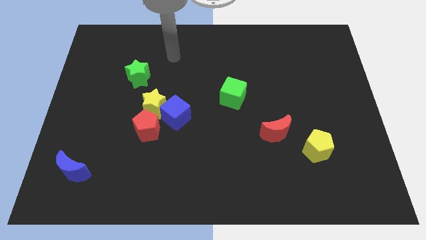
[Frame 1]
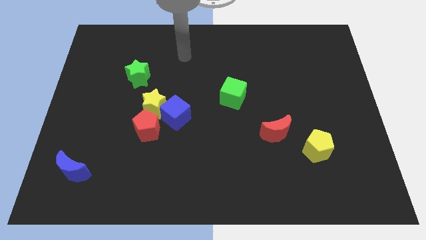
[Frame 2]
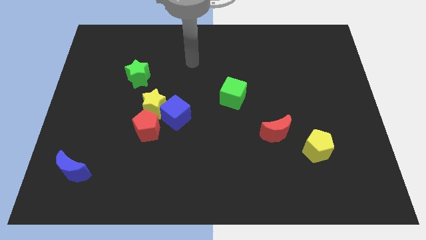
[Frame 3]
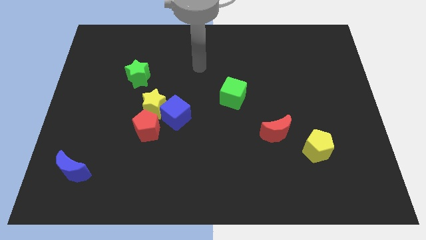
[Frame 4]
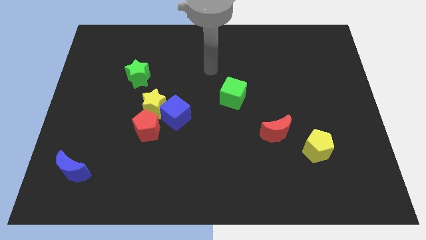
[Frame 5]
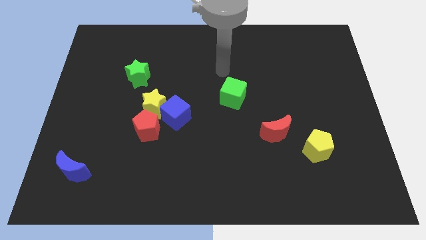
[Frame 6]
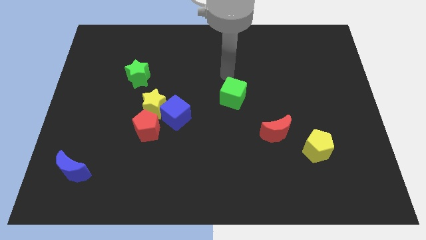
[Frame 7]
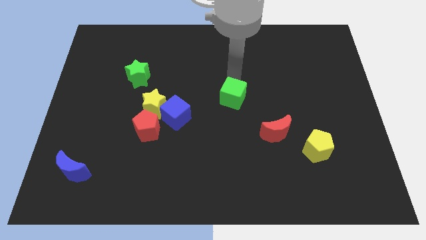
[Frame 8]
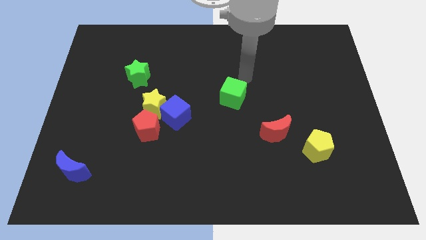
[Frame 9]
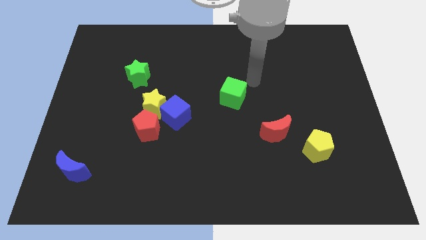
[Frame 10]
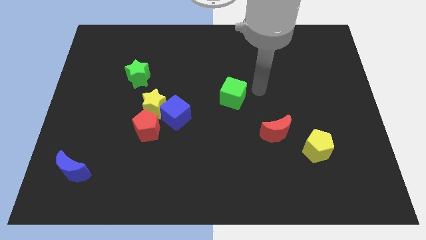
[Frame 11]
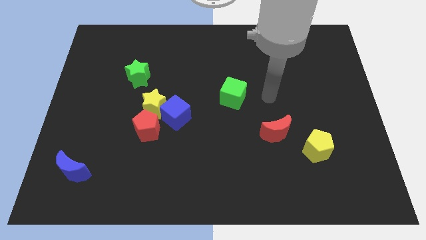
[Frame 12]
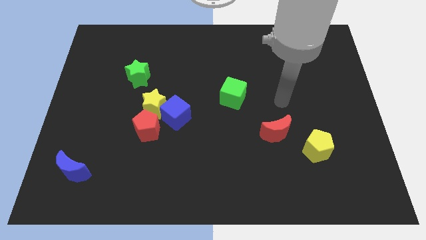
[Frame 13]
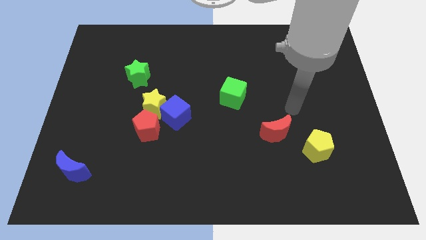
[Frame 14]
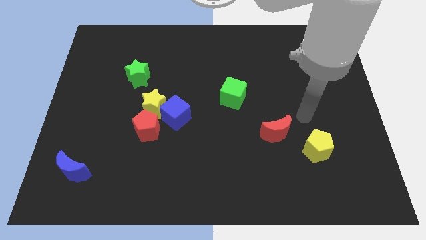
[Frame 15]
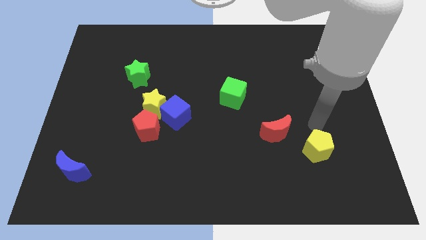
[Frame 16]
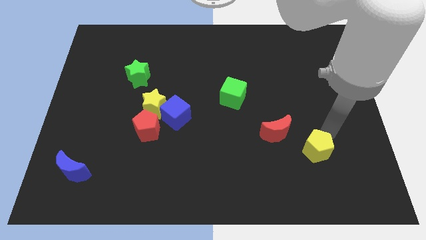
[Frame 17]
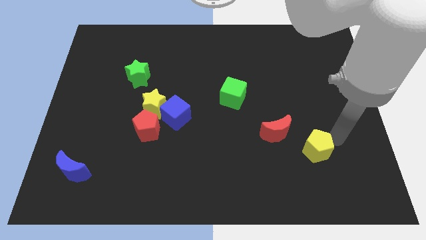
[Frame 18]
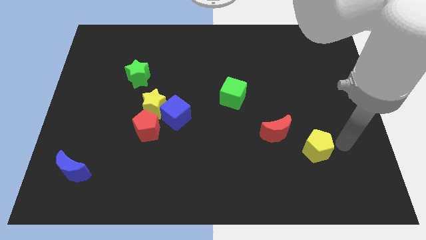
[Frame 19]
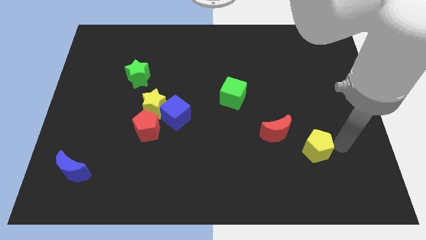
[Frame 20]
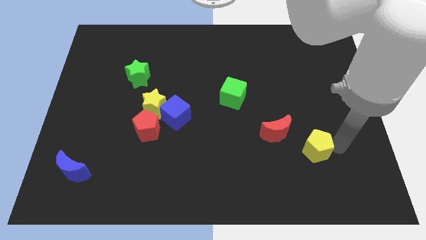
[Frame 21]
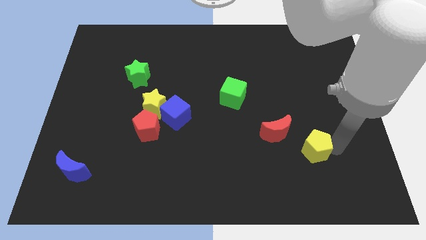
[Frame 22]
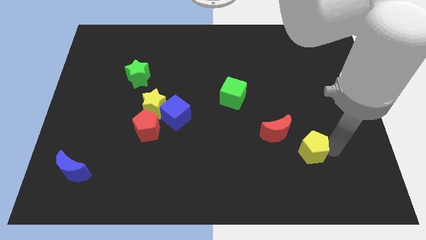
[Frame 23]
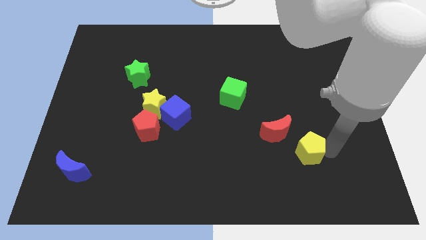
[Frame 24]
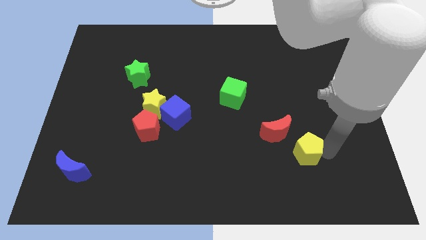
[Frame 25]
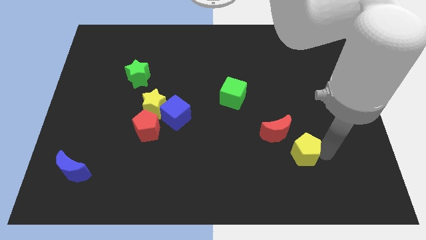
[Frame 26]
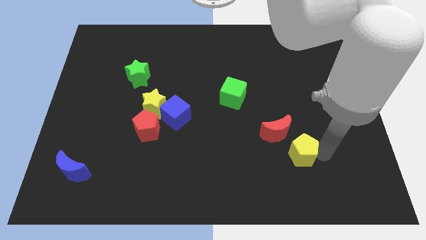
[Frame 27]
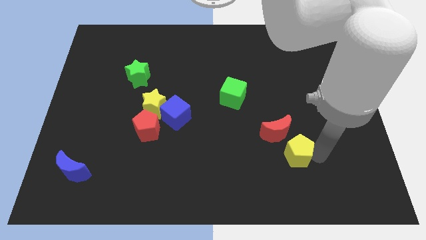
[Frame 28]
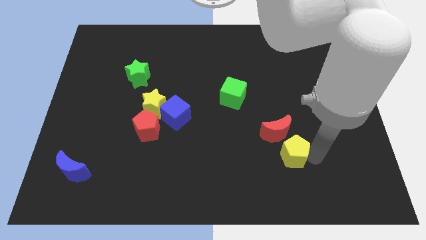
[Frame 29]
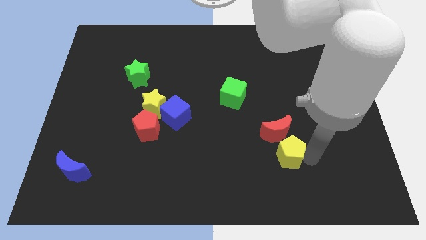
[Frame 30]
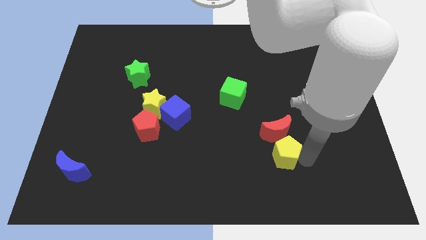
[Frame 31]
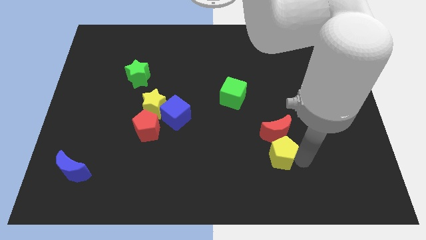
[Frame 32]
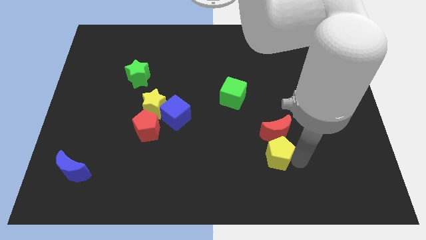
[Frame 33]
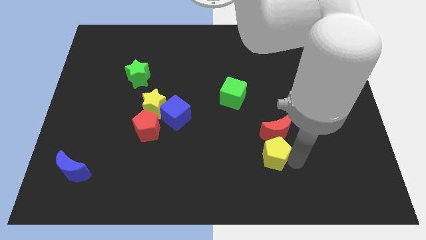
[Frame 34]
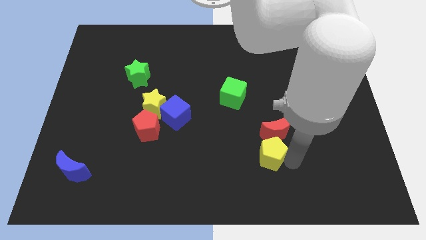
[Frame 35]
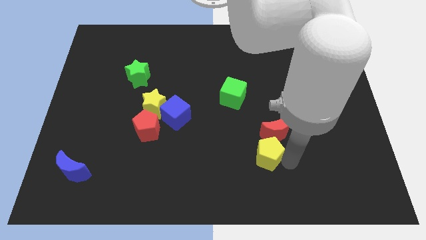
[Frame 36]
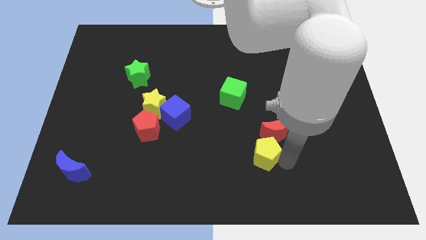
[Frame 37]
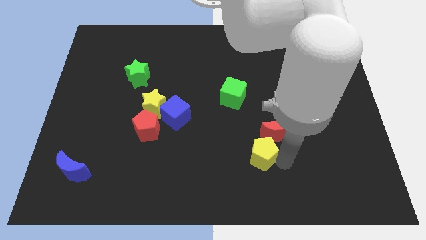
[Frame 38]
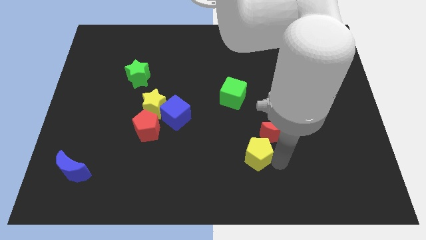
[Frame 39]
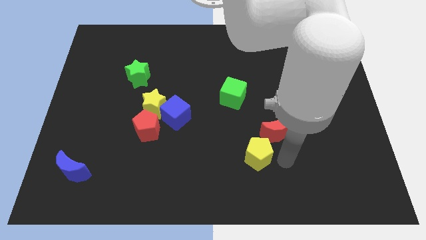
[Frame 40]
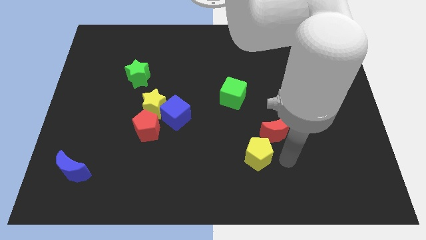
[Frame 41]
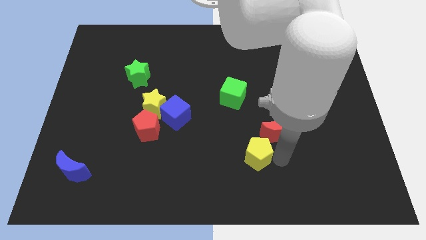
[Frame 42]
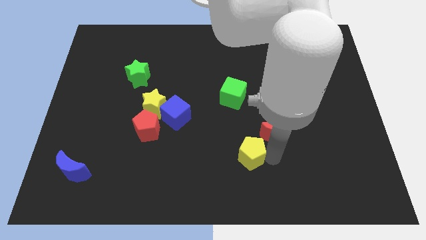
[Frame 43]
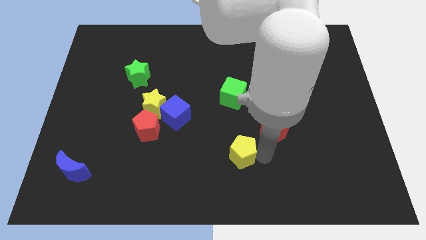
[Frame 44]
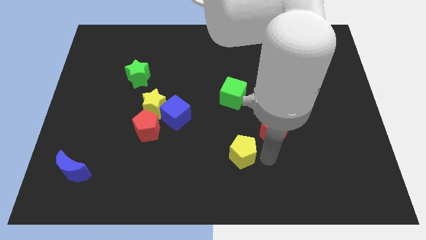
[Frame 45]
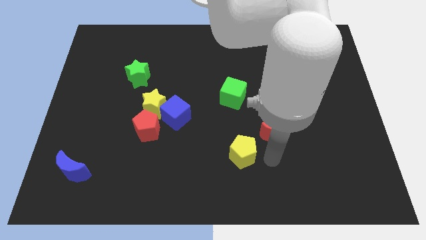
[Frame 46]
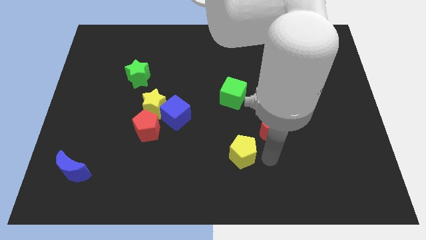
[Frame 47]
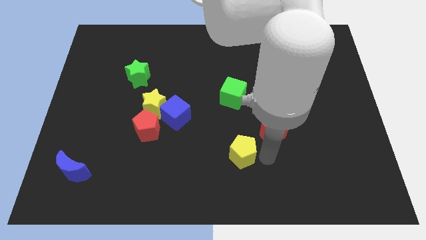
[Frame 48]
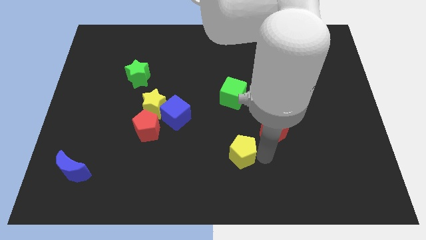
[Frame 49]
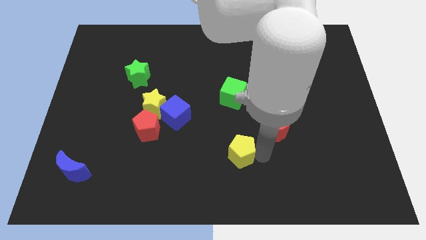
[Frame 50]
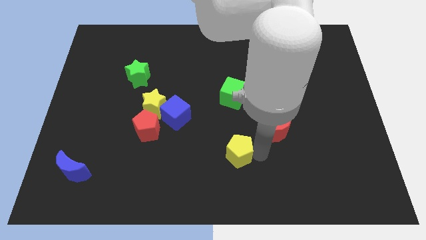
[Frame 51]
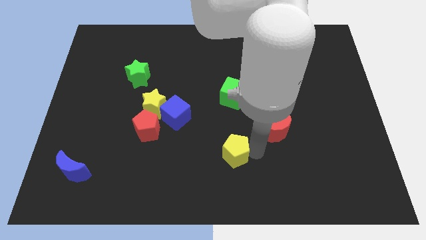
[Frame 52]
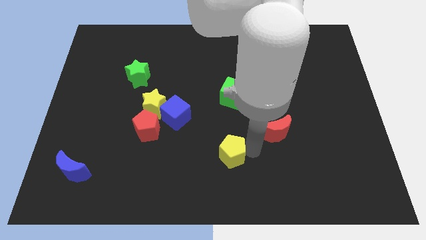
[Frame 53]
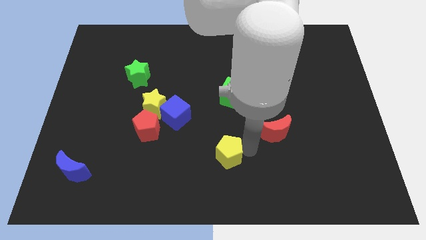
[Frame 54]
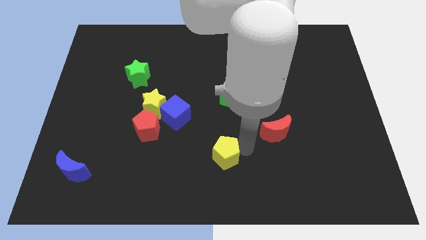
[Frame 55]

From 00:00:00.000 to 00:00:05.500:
push the yellow pentagon to the left

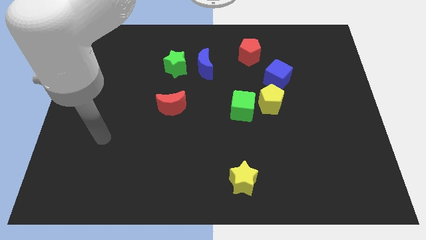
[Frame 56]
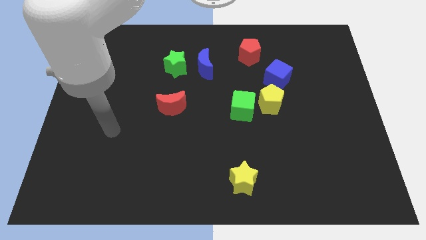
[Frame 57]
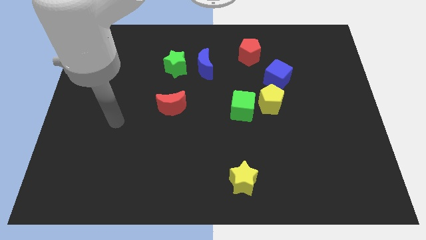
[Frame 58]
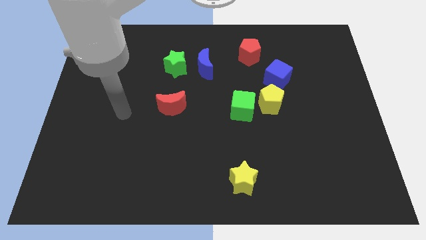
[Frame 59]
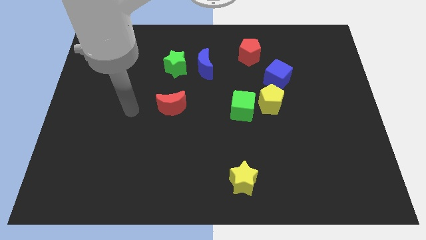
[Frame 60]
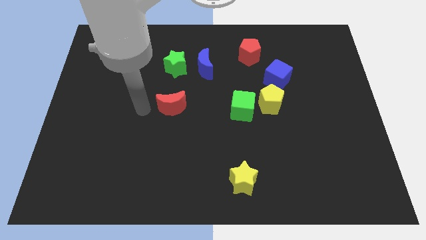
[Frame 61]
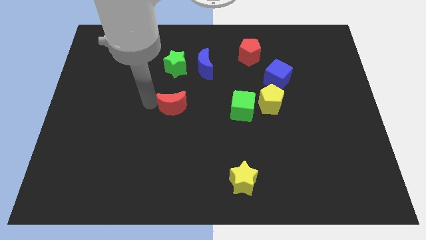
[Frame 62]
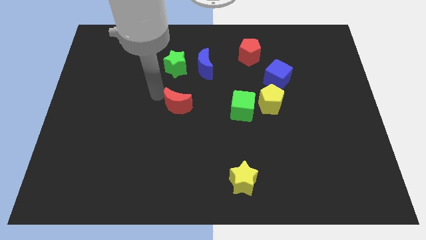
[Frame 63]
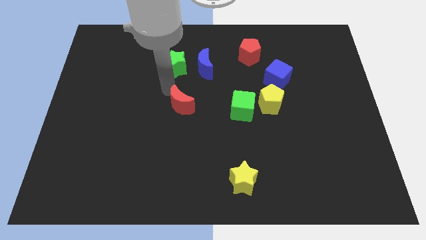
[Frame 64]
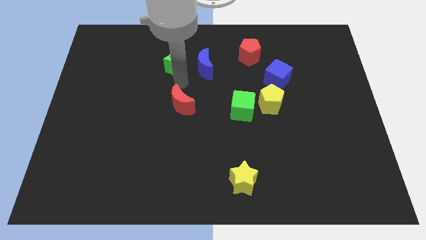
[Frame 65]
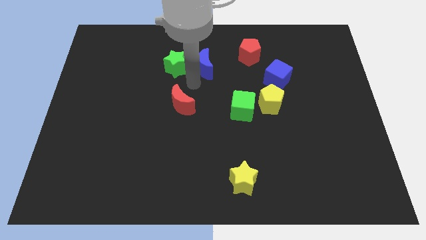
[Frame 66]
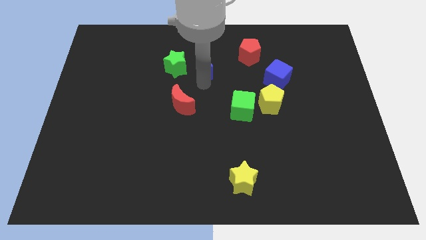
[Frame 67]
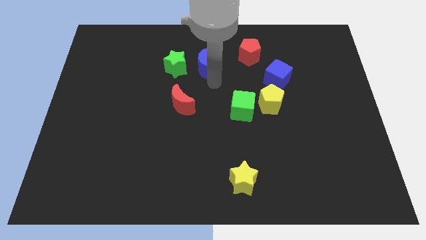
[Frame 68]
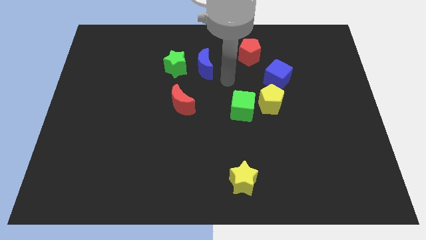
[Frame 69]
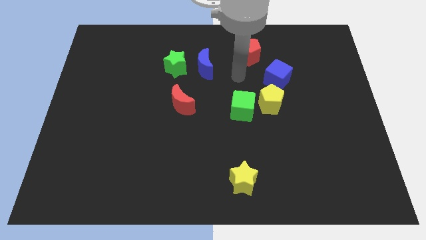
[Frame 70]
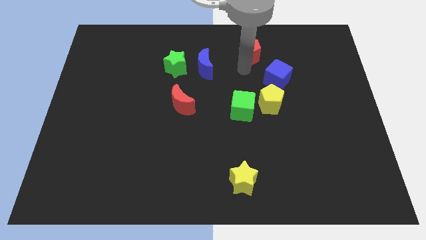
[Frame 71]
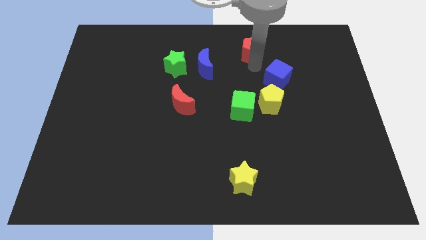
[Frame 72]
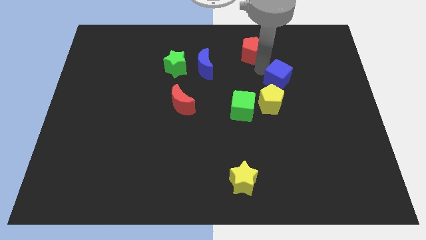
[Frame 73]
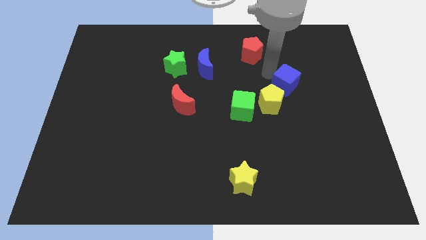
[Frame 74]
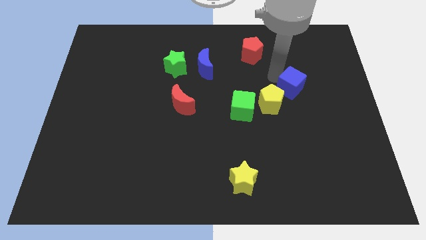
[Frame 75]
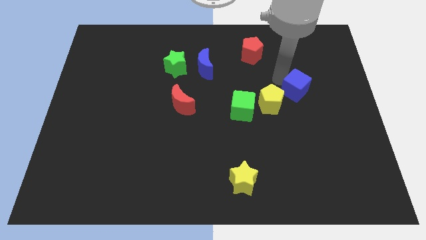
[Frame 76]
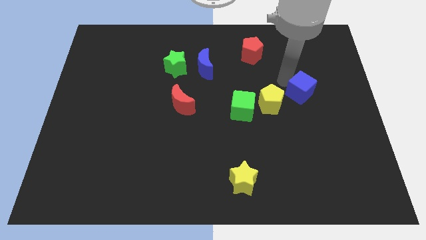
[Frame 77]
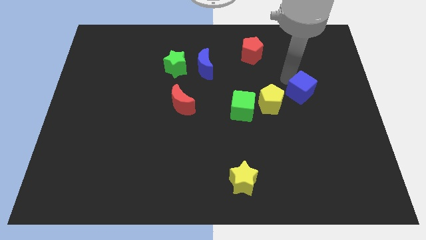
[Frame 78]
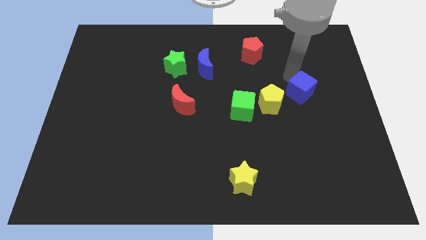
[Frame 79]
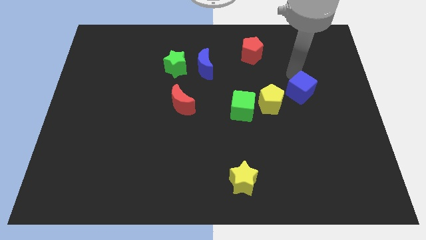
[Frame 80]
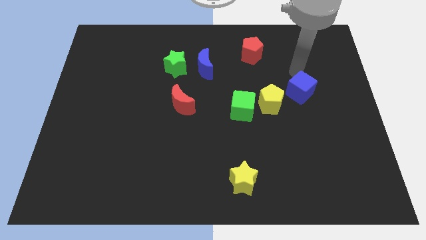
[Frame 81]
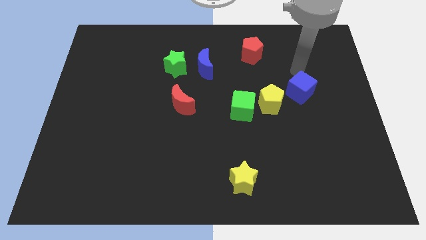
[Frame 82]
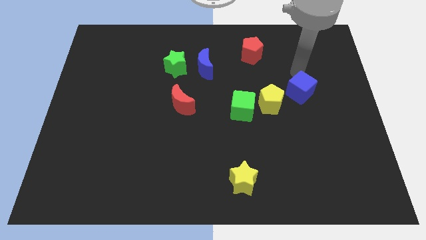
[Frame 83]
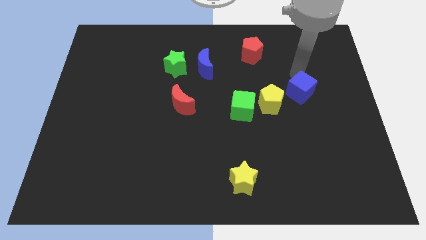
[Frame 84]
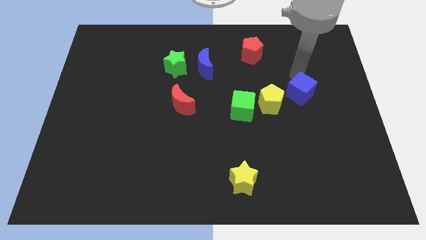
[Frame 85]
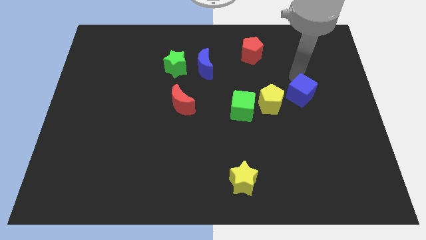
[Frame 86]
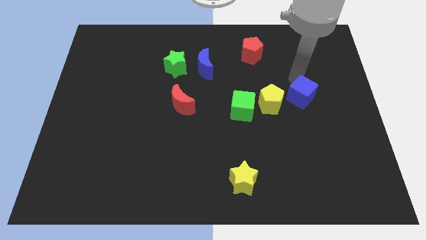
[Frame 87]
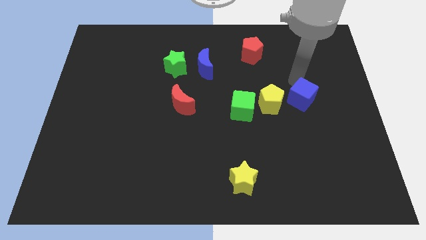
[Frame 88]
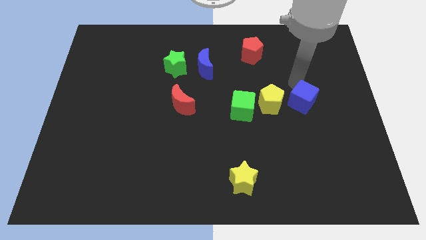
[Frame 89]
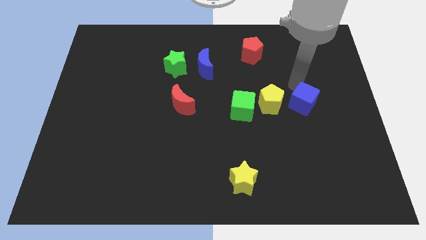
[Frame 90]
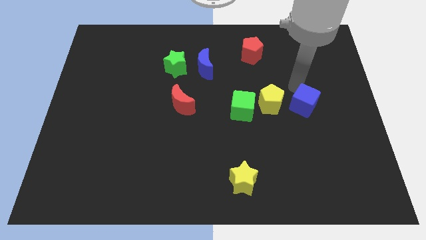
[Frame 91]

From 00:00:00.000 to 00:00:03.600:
slide the blue cube downwards a bit
